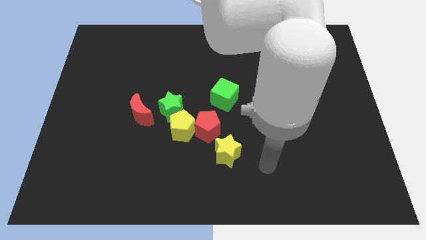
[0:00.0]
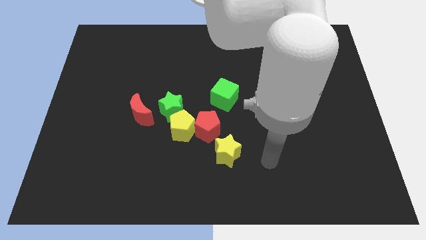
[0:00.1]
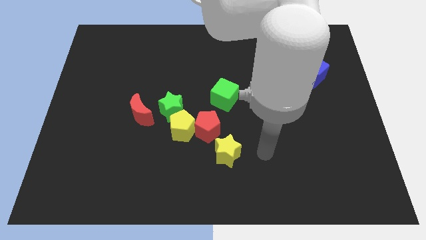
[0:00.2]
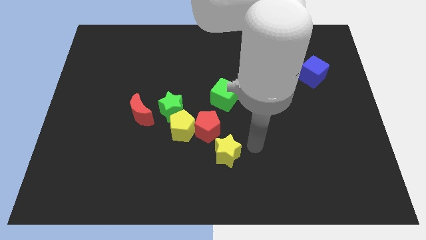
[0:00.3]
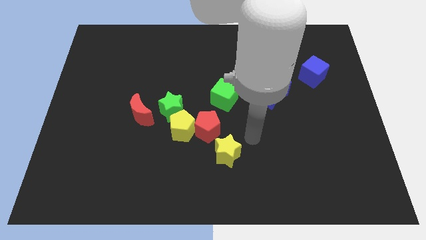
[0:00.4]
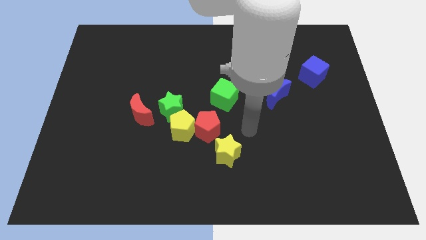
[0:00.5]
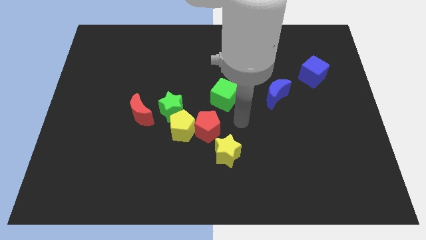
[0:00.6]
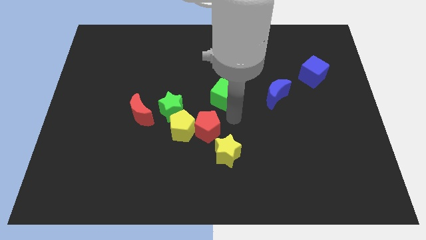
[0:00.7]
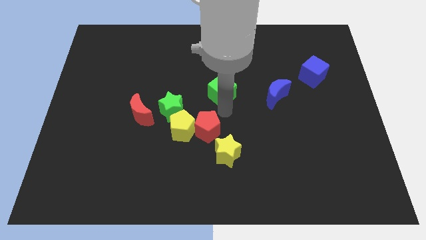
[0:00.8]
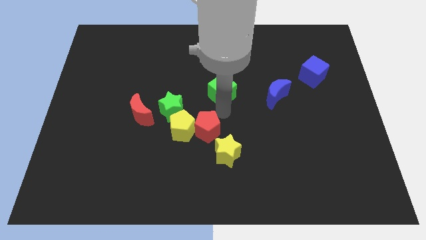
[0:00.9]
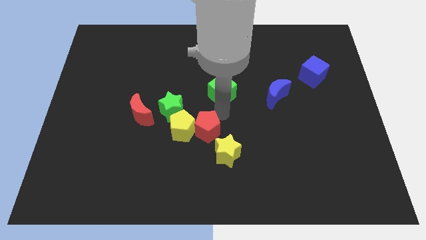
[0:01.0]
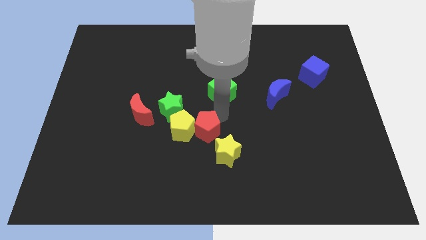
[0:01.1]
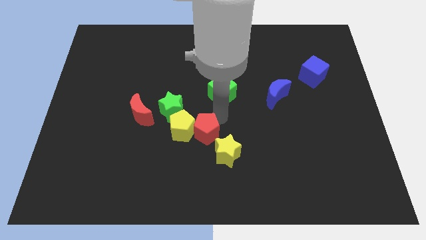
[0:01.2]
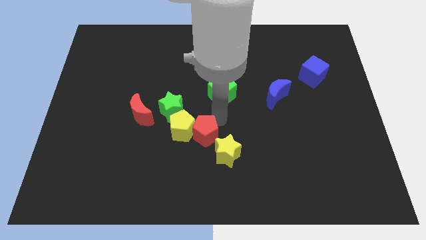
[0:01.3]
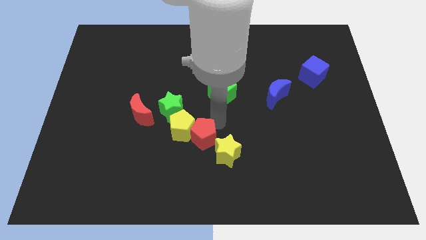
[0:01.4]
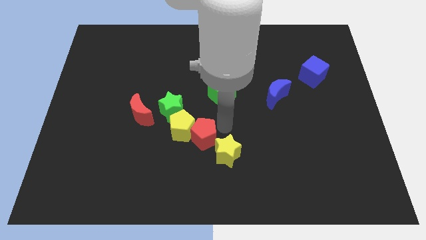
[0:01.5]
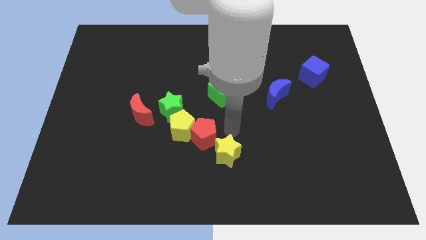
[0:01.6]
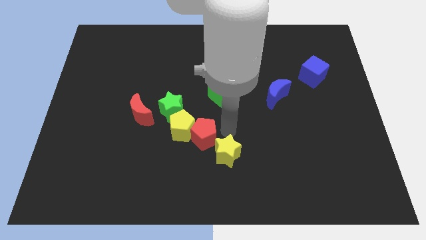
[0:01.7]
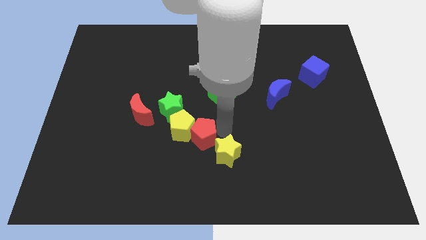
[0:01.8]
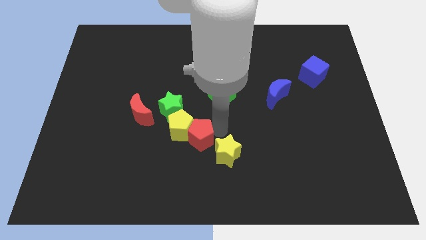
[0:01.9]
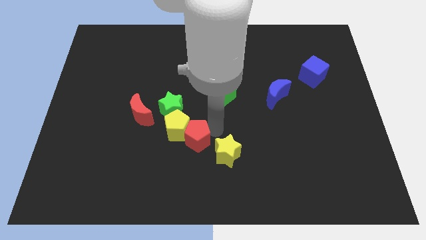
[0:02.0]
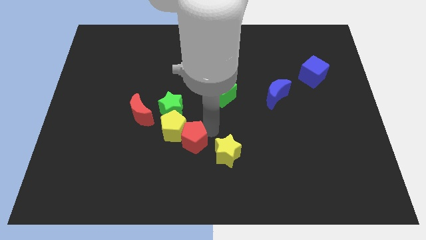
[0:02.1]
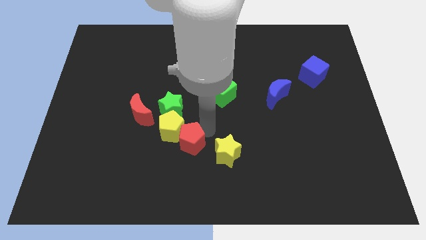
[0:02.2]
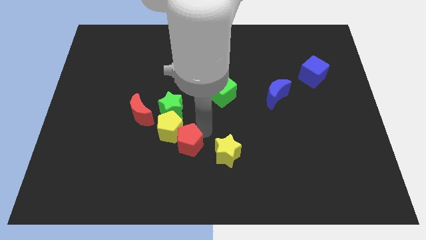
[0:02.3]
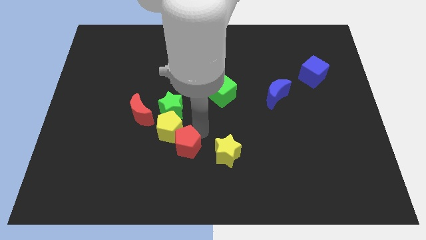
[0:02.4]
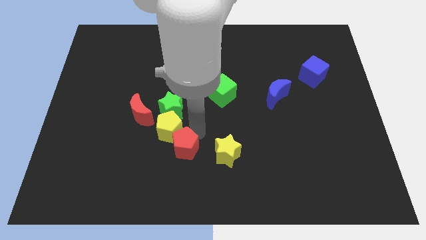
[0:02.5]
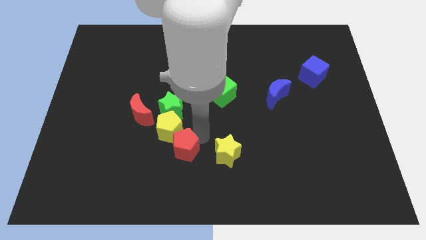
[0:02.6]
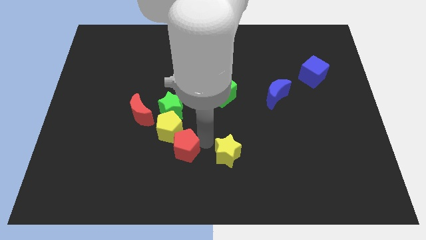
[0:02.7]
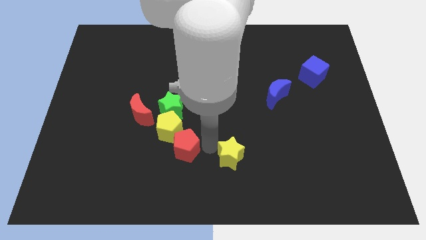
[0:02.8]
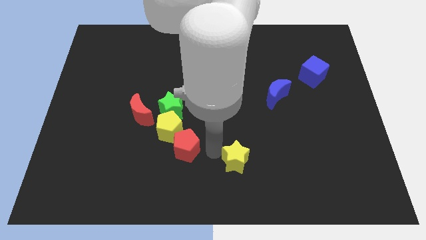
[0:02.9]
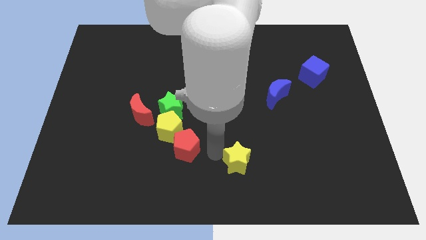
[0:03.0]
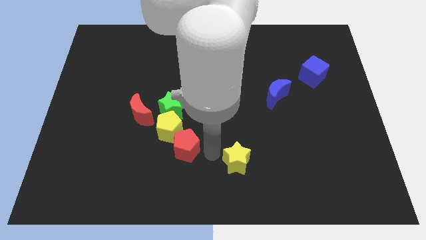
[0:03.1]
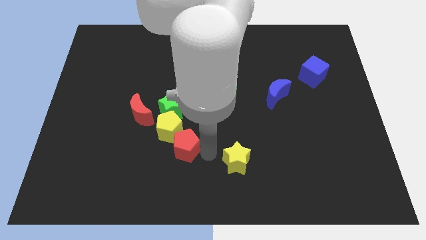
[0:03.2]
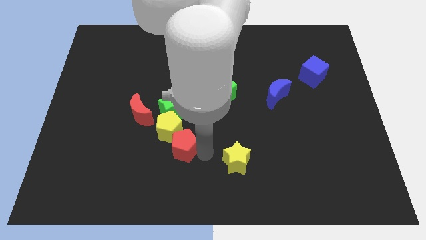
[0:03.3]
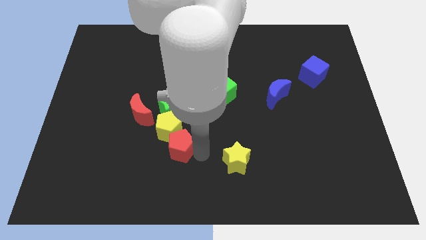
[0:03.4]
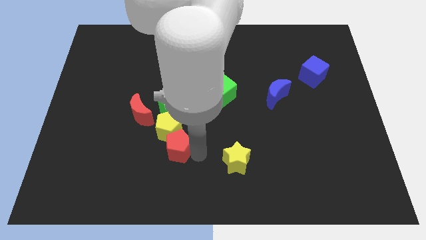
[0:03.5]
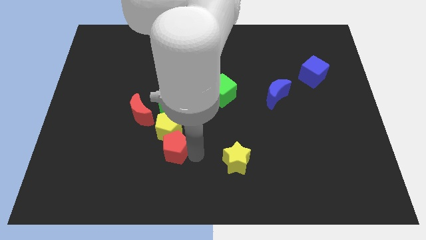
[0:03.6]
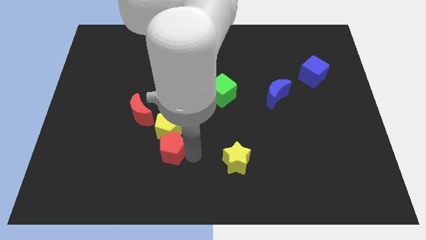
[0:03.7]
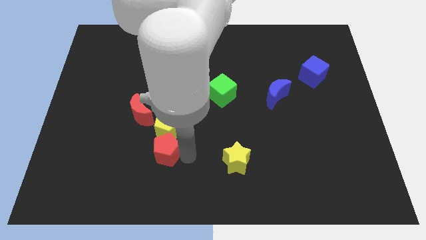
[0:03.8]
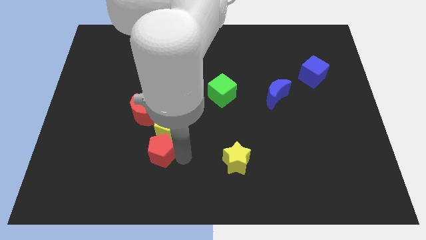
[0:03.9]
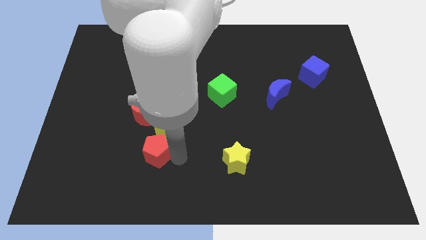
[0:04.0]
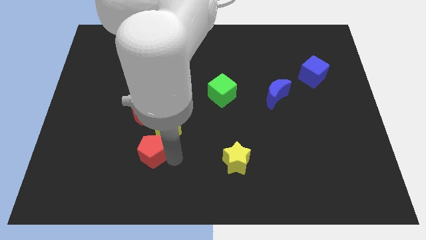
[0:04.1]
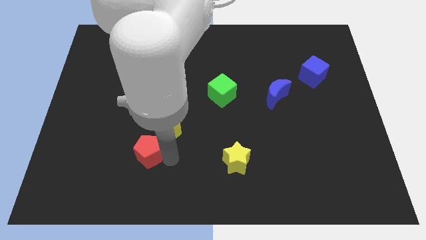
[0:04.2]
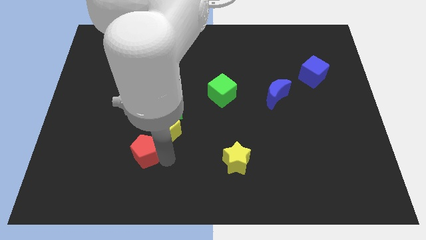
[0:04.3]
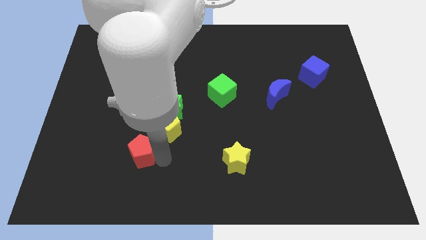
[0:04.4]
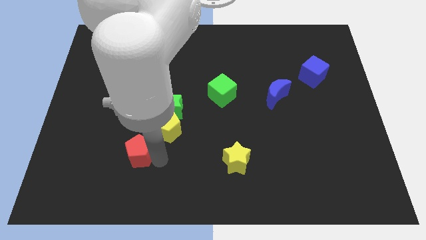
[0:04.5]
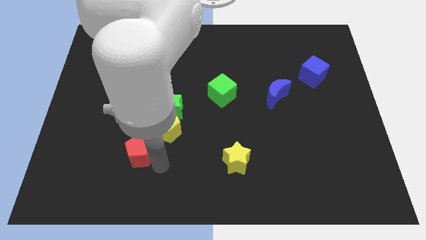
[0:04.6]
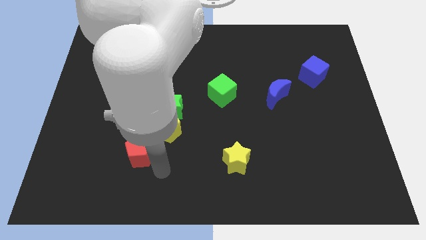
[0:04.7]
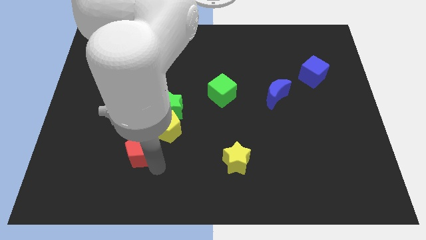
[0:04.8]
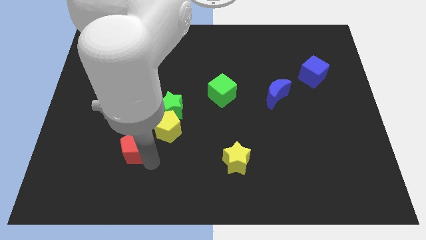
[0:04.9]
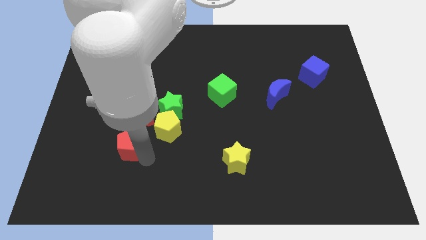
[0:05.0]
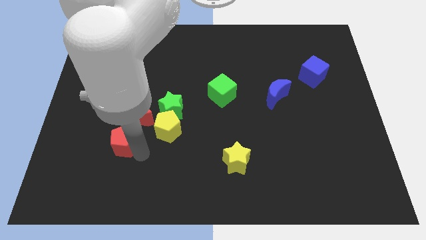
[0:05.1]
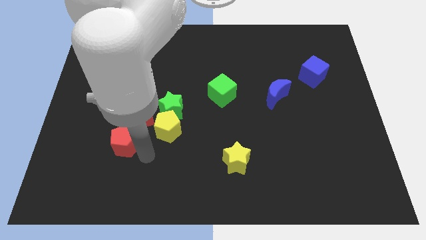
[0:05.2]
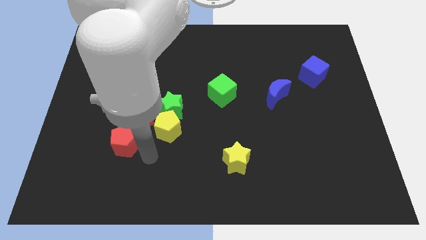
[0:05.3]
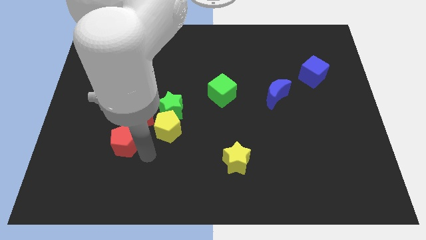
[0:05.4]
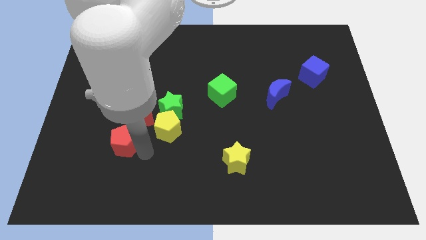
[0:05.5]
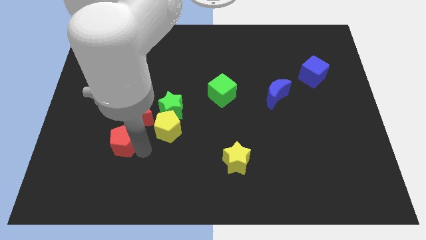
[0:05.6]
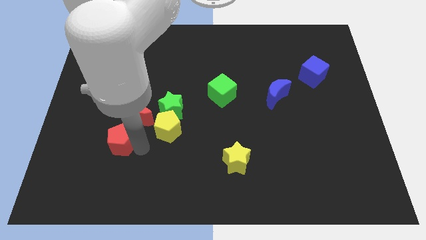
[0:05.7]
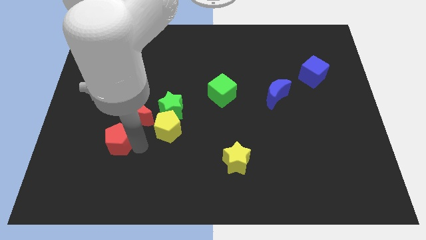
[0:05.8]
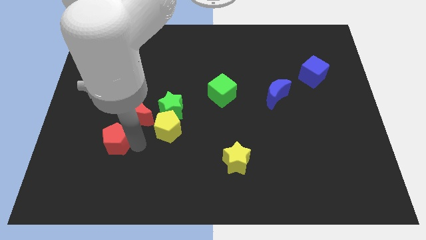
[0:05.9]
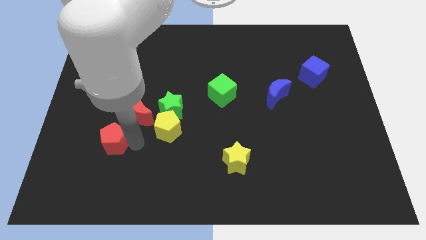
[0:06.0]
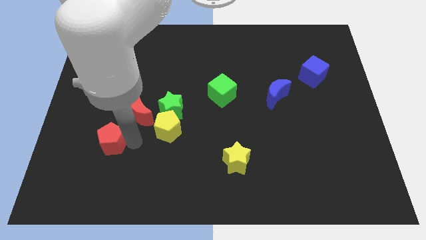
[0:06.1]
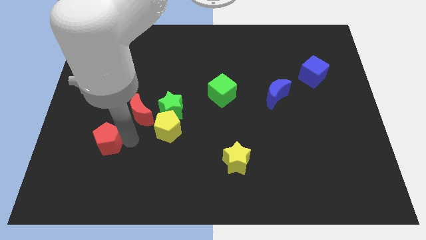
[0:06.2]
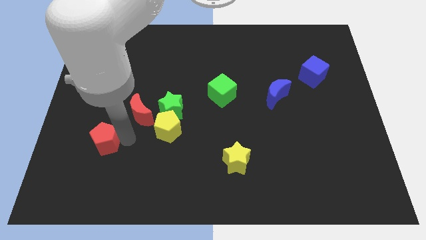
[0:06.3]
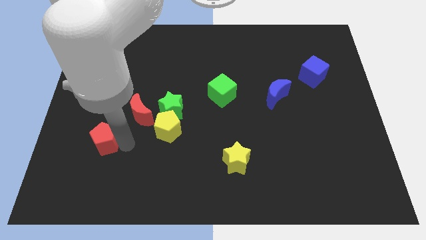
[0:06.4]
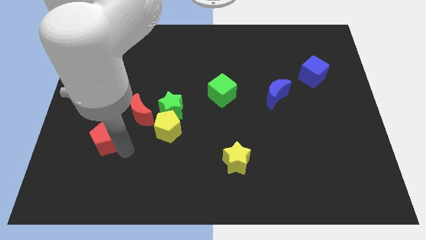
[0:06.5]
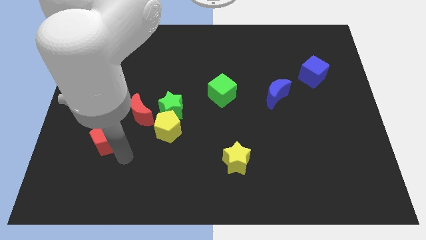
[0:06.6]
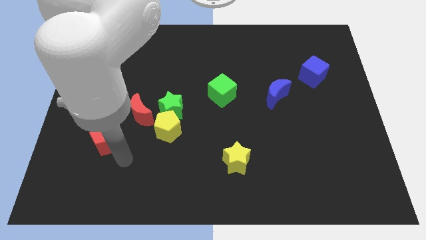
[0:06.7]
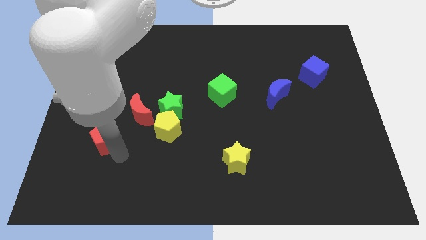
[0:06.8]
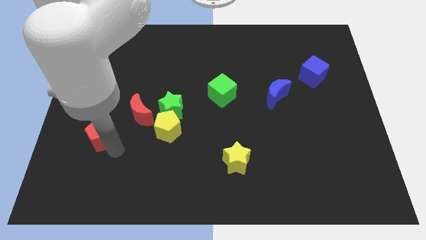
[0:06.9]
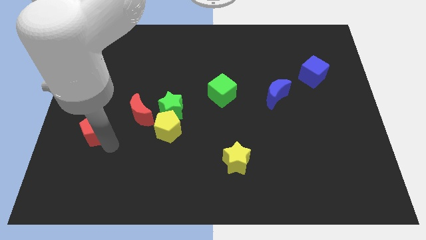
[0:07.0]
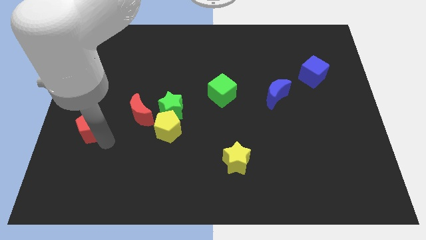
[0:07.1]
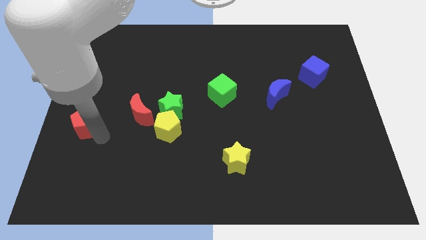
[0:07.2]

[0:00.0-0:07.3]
put the red pentagon to the left side of the board
